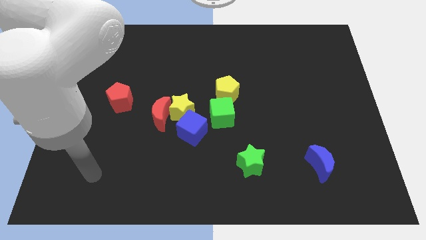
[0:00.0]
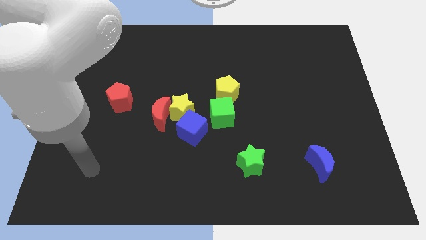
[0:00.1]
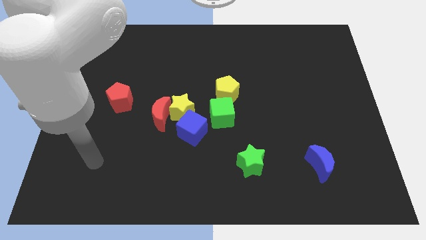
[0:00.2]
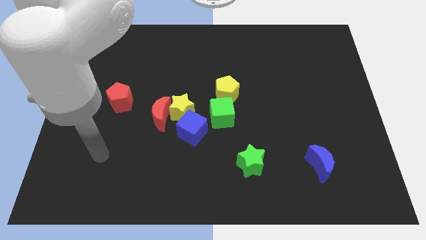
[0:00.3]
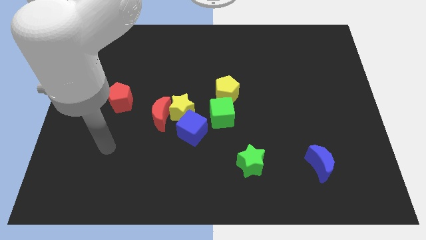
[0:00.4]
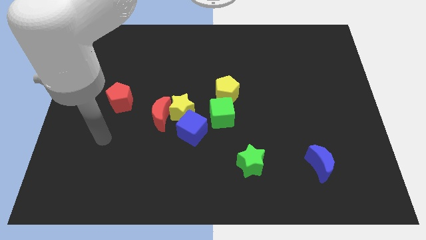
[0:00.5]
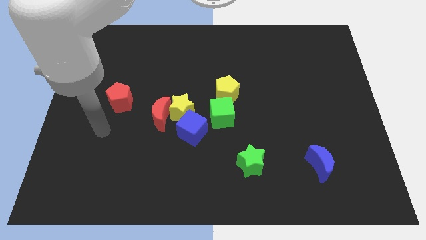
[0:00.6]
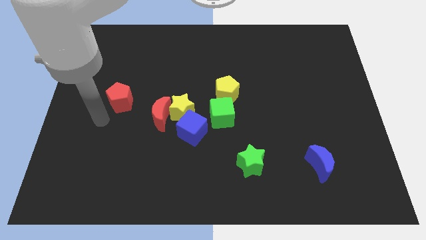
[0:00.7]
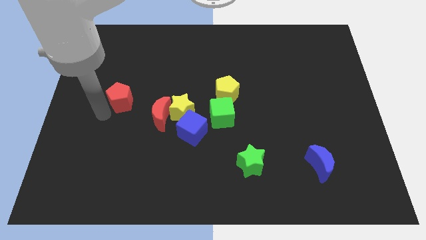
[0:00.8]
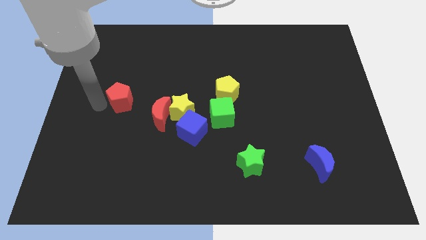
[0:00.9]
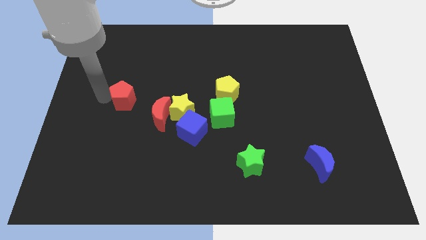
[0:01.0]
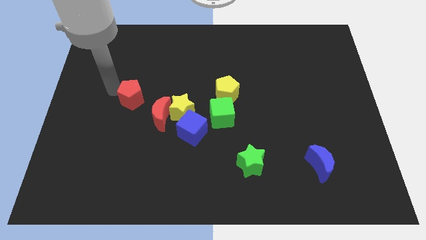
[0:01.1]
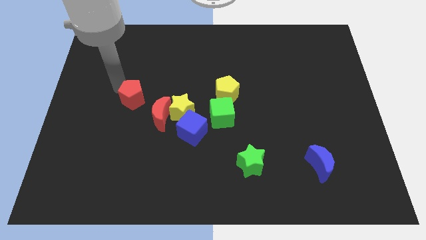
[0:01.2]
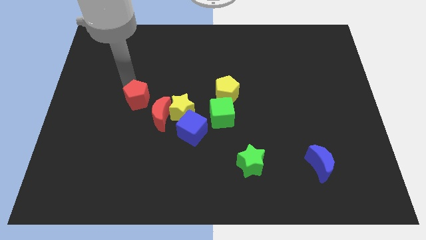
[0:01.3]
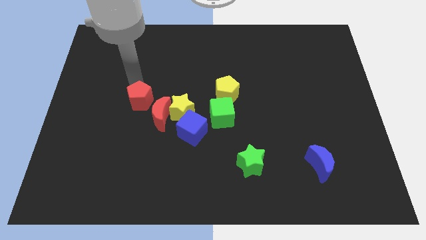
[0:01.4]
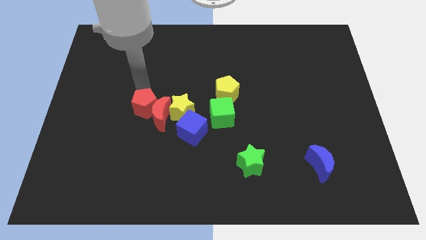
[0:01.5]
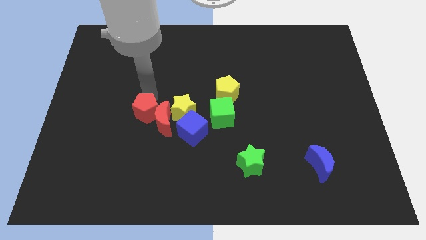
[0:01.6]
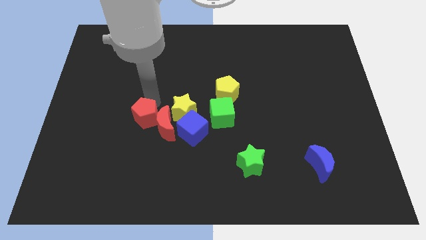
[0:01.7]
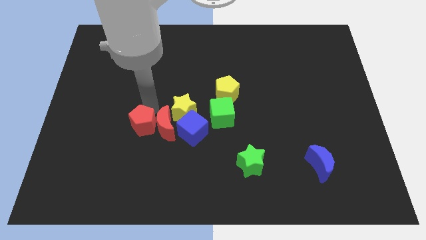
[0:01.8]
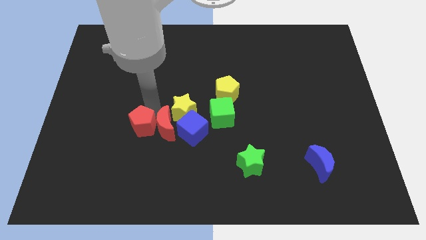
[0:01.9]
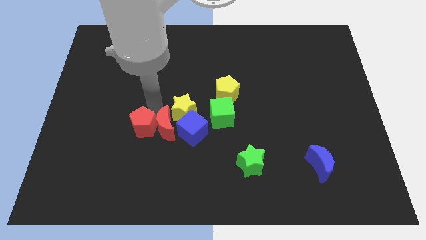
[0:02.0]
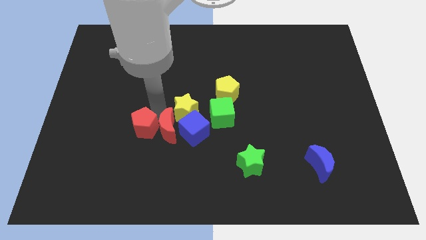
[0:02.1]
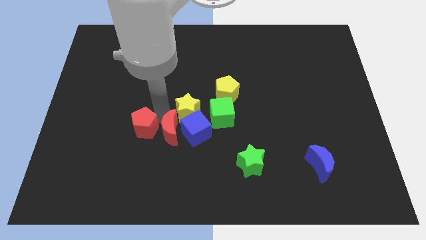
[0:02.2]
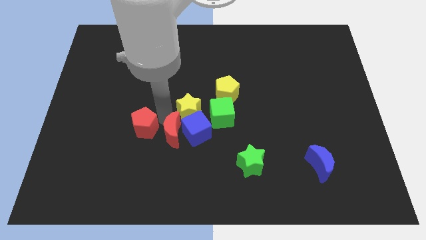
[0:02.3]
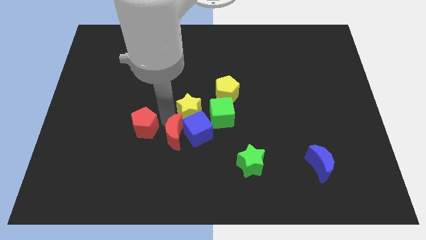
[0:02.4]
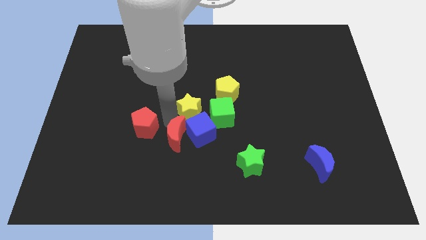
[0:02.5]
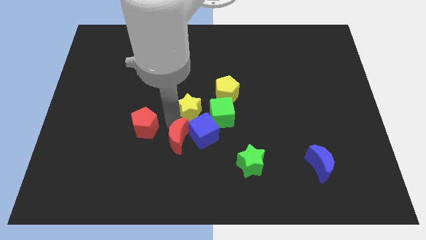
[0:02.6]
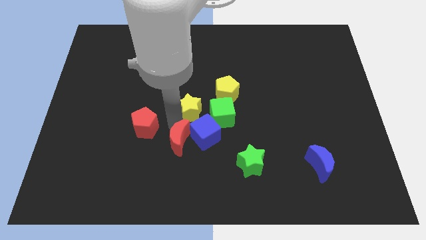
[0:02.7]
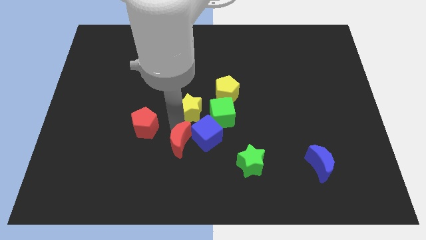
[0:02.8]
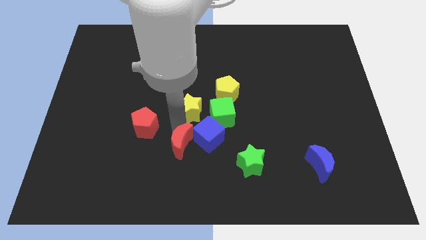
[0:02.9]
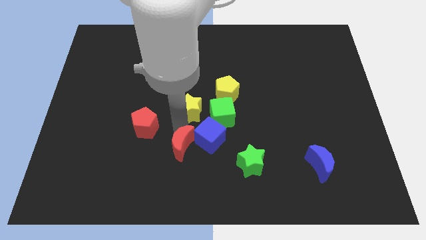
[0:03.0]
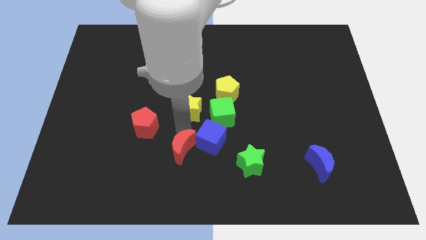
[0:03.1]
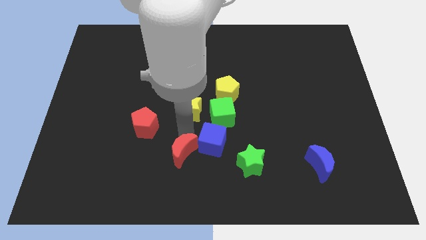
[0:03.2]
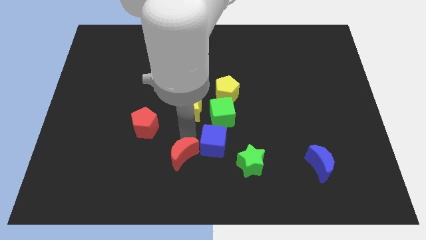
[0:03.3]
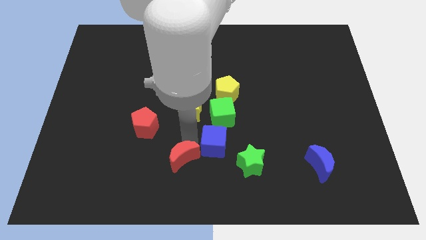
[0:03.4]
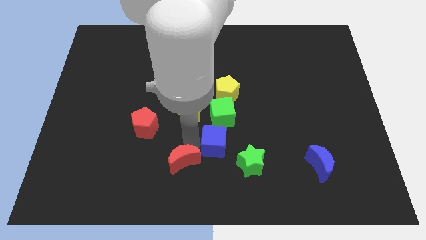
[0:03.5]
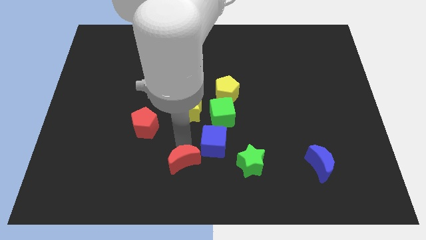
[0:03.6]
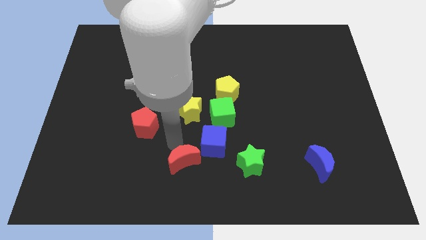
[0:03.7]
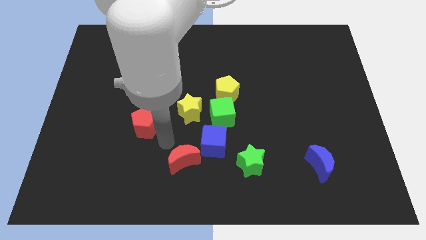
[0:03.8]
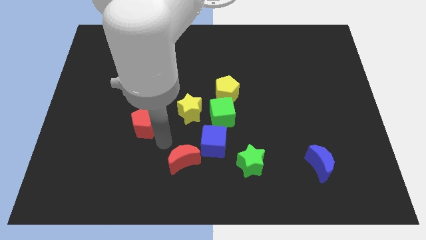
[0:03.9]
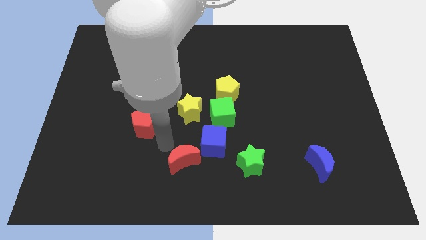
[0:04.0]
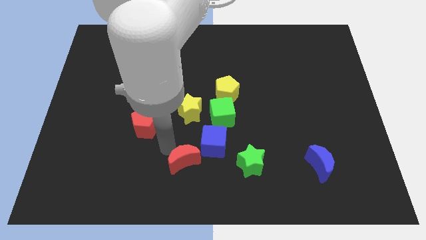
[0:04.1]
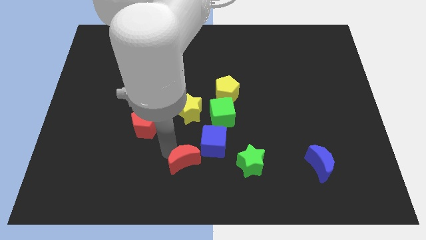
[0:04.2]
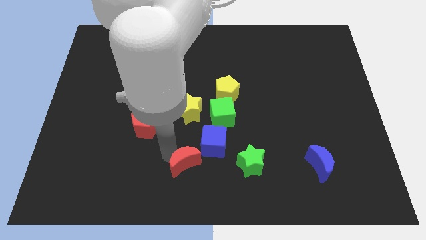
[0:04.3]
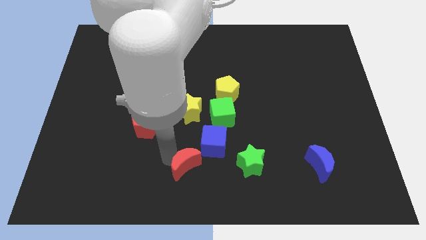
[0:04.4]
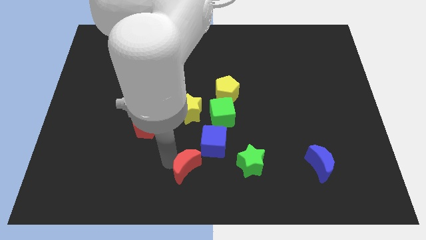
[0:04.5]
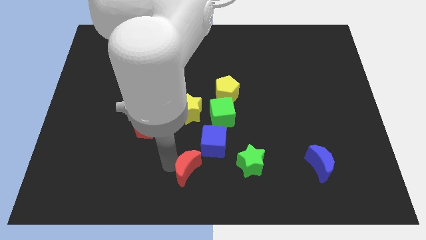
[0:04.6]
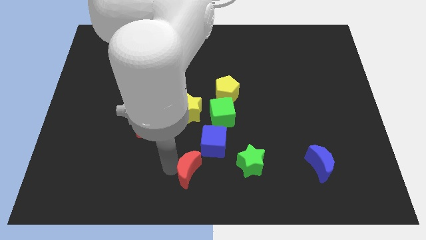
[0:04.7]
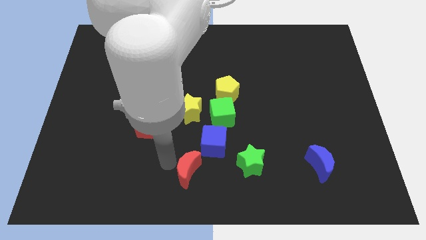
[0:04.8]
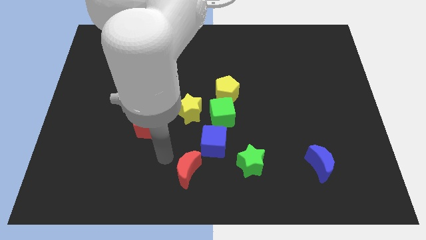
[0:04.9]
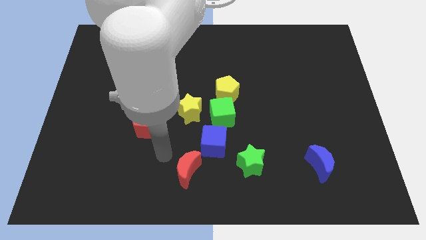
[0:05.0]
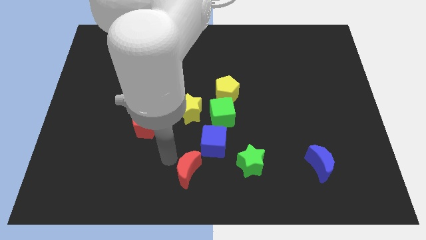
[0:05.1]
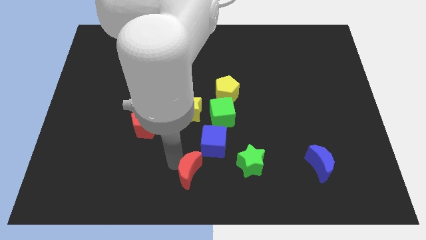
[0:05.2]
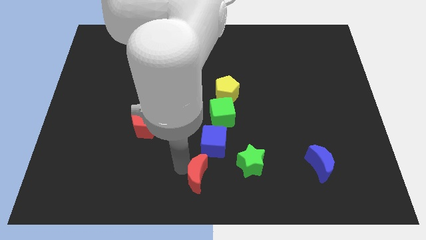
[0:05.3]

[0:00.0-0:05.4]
push the red moon to the bottom side of the blue cube

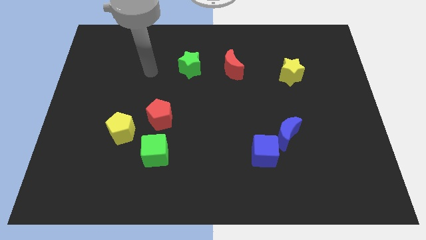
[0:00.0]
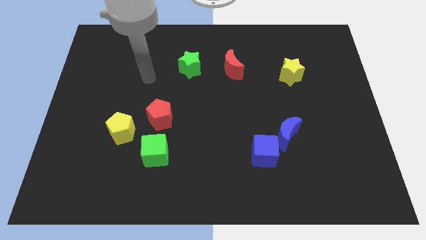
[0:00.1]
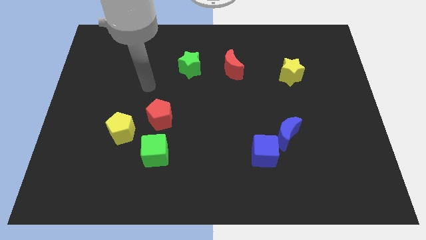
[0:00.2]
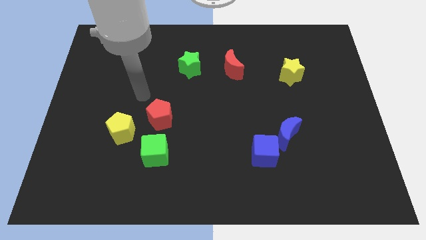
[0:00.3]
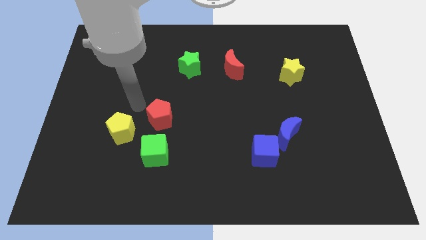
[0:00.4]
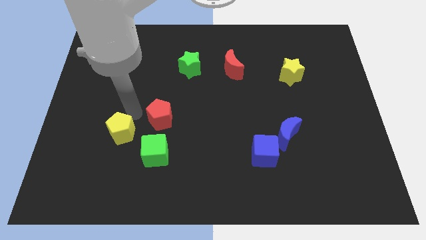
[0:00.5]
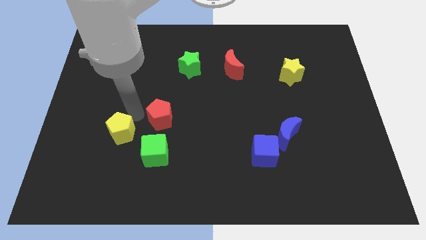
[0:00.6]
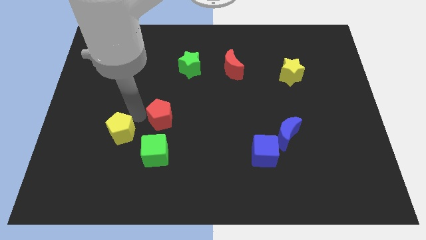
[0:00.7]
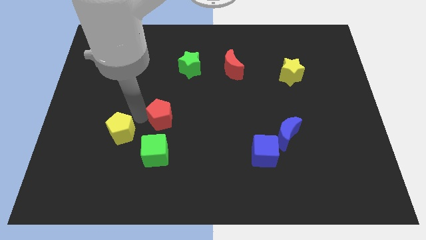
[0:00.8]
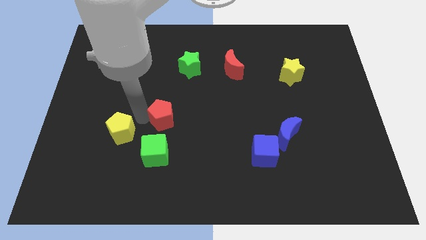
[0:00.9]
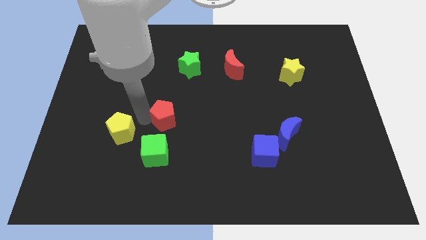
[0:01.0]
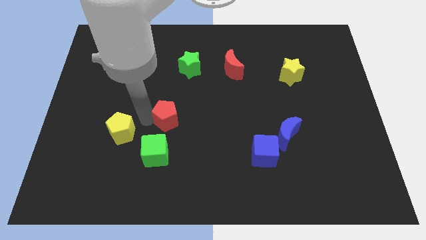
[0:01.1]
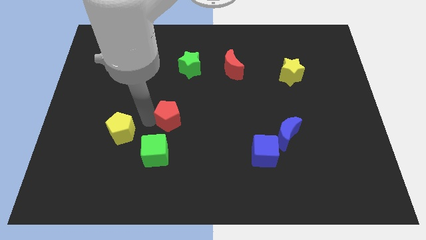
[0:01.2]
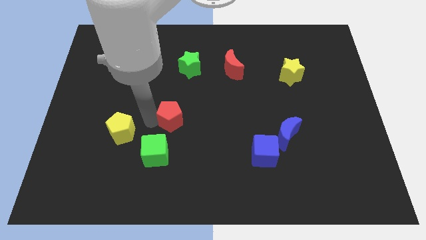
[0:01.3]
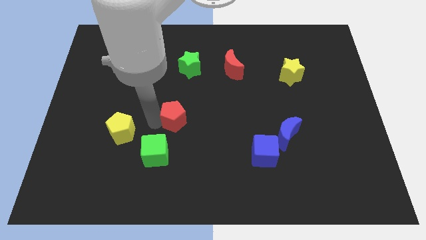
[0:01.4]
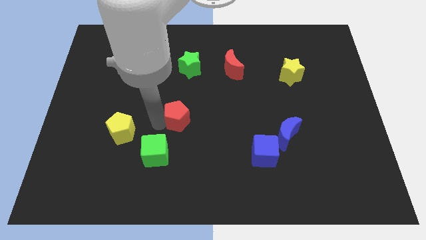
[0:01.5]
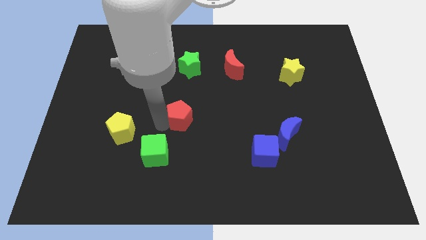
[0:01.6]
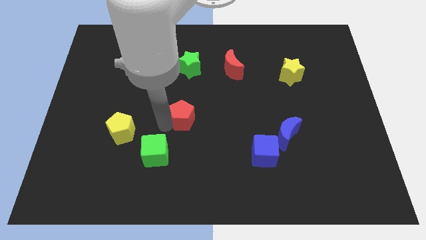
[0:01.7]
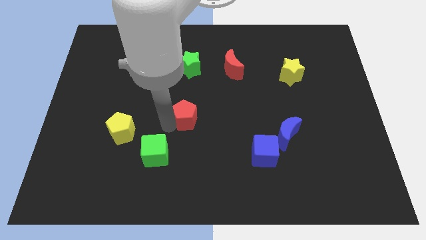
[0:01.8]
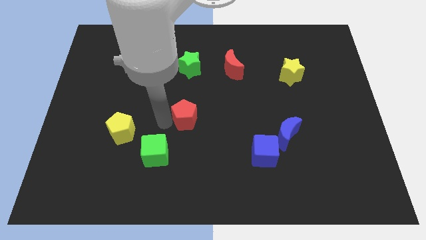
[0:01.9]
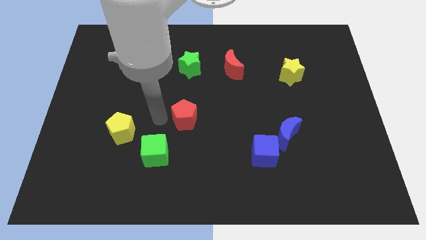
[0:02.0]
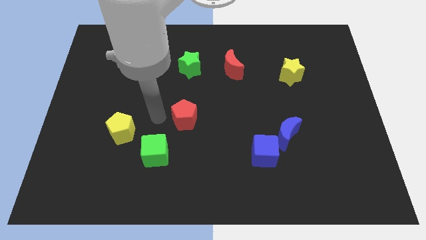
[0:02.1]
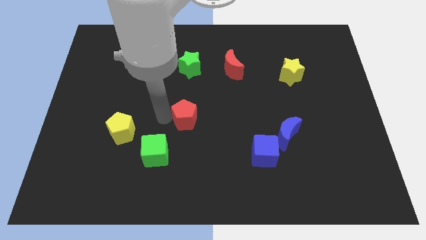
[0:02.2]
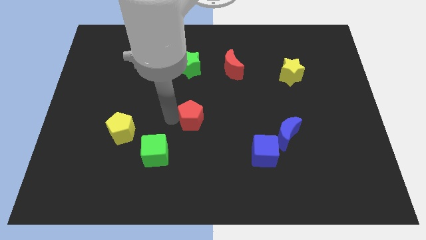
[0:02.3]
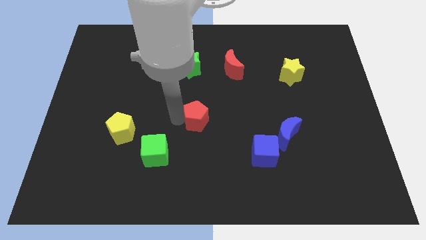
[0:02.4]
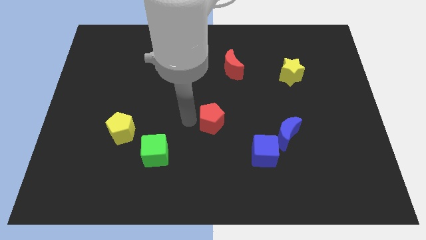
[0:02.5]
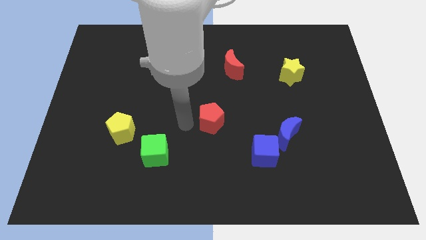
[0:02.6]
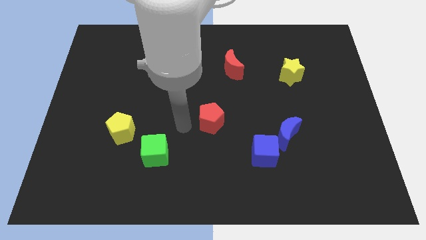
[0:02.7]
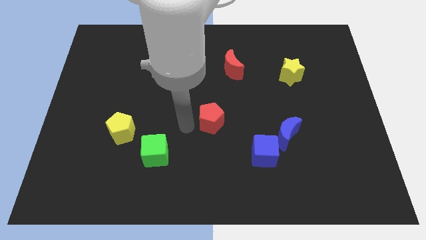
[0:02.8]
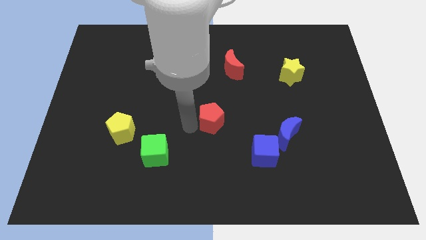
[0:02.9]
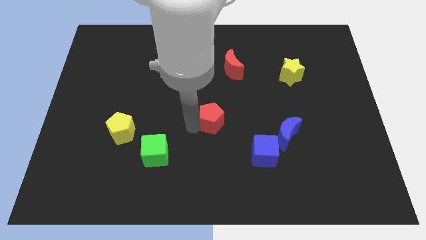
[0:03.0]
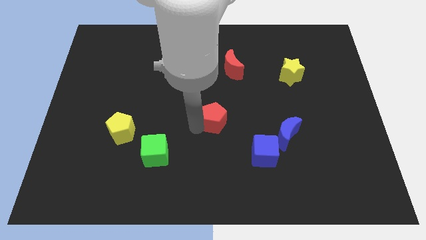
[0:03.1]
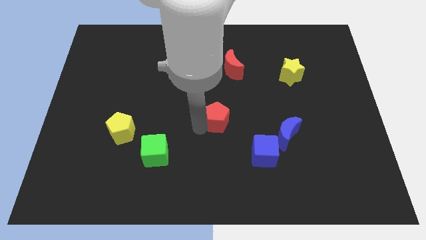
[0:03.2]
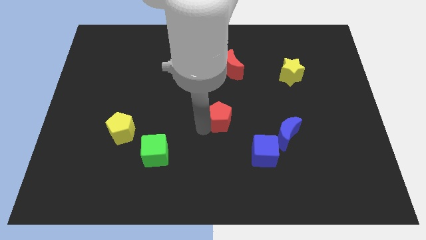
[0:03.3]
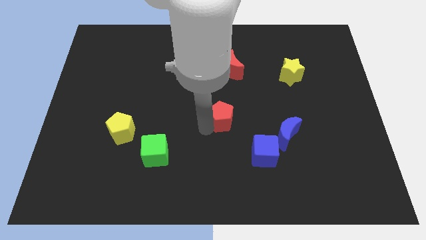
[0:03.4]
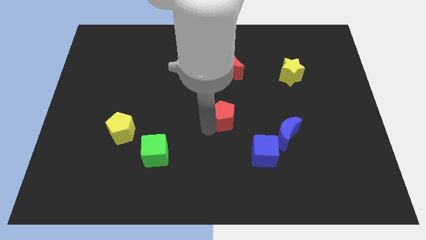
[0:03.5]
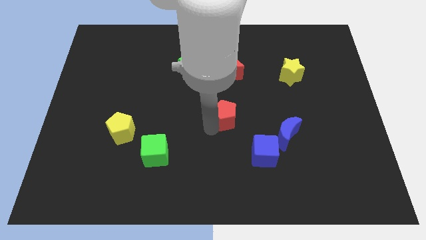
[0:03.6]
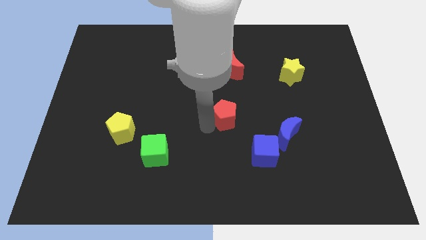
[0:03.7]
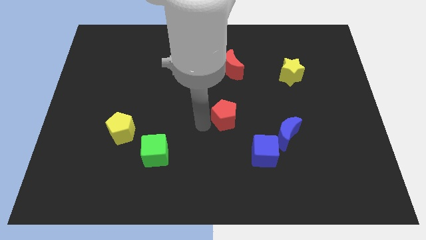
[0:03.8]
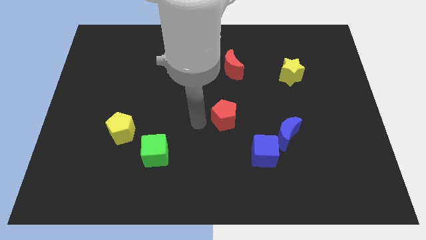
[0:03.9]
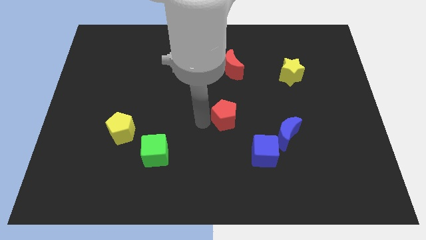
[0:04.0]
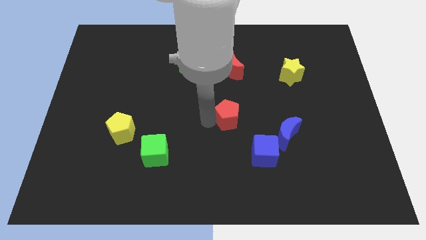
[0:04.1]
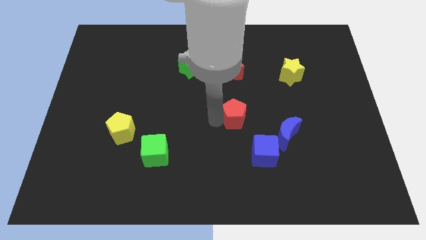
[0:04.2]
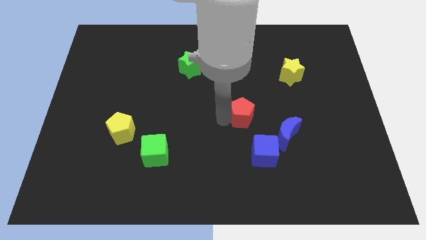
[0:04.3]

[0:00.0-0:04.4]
push the red pentagon to the top of the blue cube
